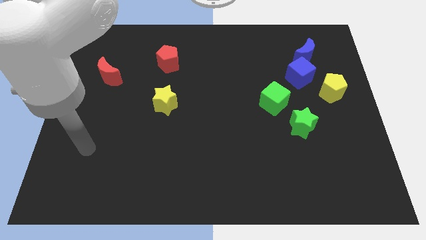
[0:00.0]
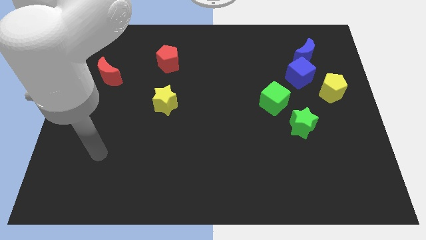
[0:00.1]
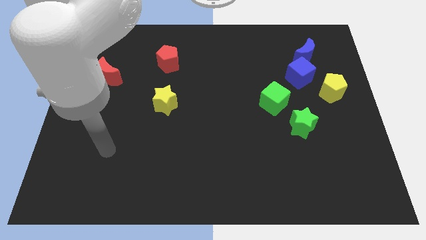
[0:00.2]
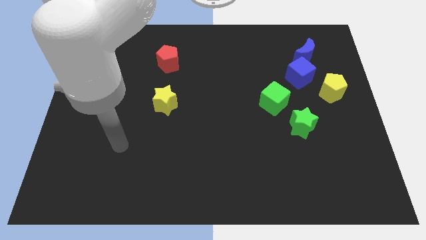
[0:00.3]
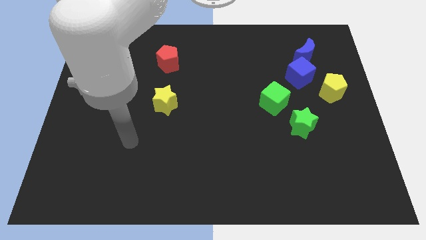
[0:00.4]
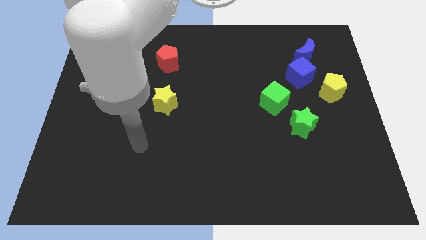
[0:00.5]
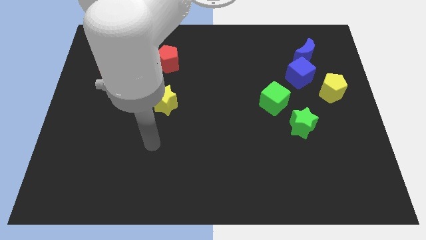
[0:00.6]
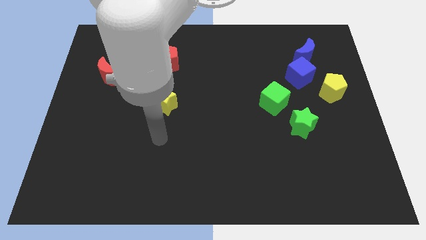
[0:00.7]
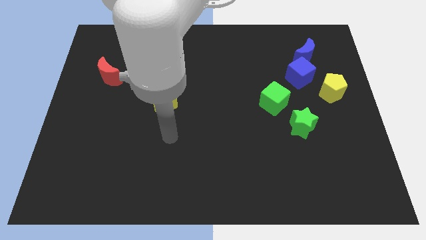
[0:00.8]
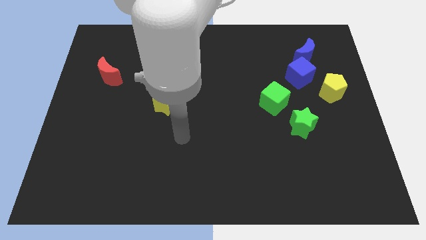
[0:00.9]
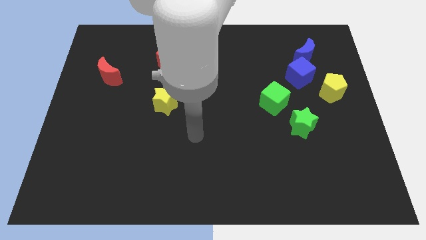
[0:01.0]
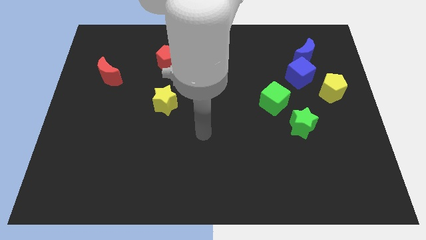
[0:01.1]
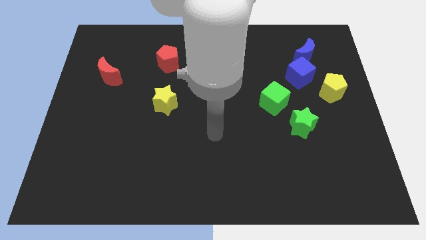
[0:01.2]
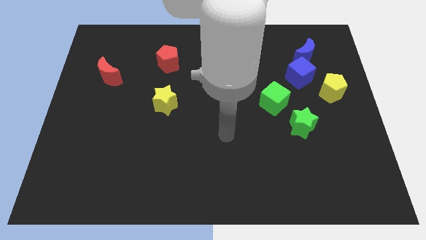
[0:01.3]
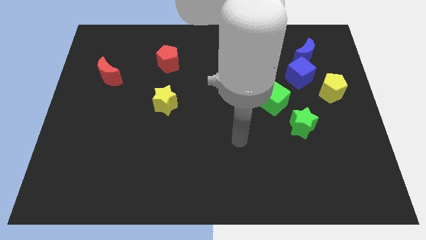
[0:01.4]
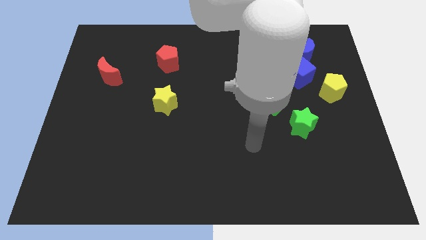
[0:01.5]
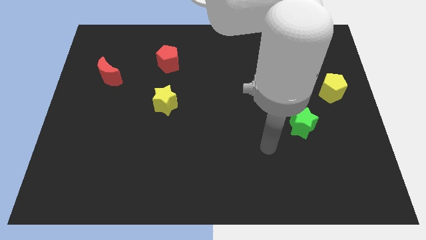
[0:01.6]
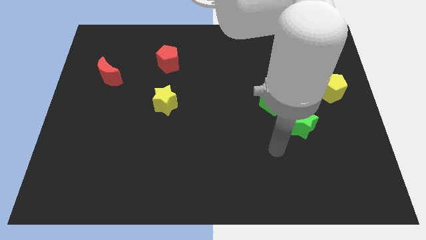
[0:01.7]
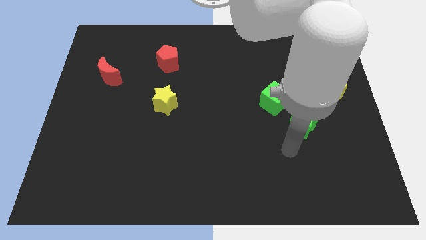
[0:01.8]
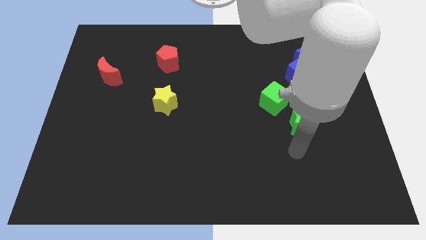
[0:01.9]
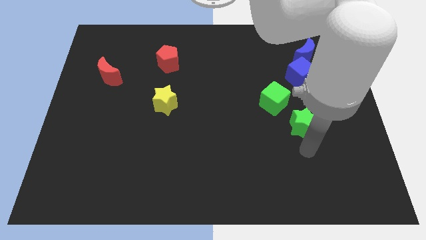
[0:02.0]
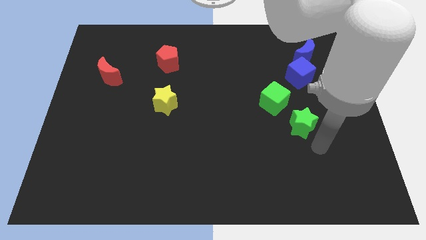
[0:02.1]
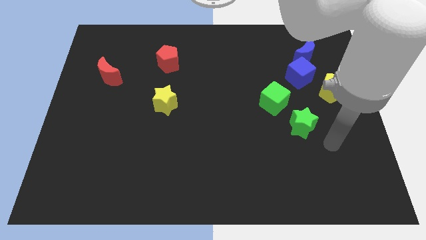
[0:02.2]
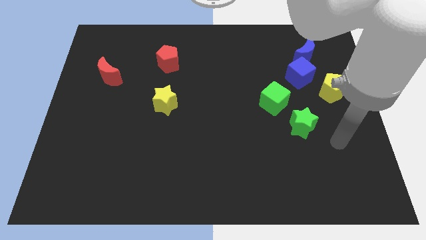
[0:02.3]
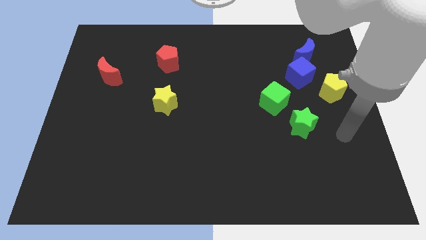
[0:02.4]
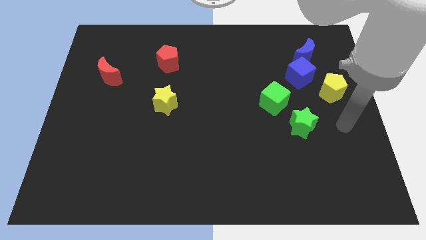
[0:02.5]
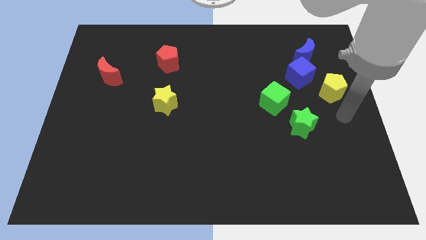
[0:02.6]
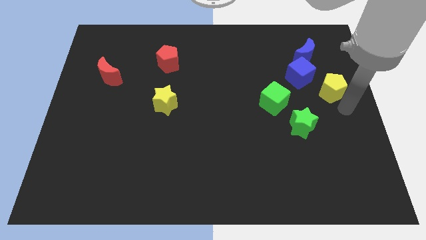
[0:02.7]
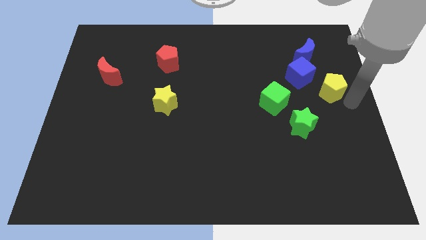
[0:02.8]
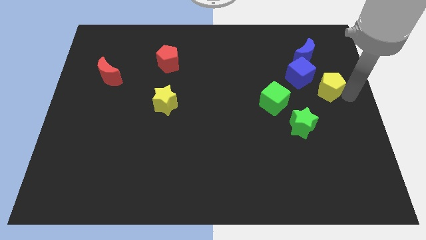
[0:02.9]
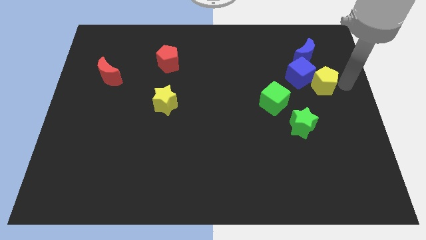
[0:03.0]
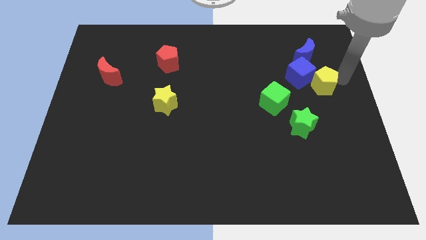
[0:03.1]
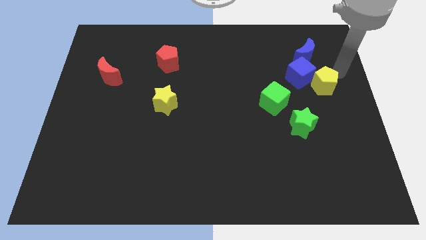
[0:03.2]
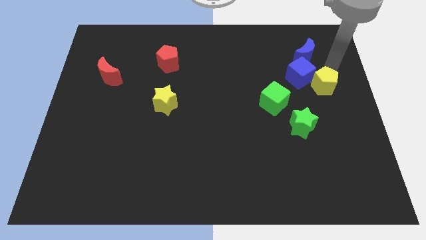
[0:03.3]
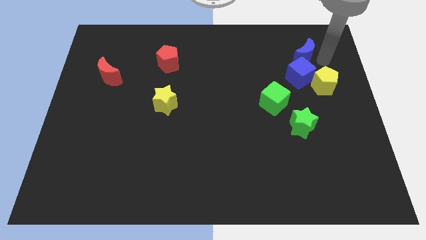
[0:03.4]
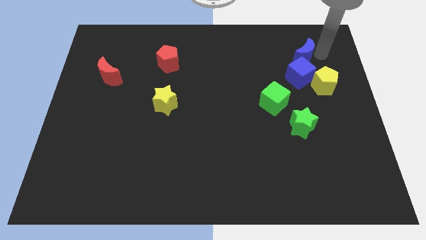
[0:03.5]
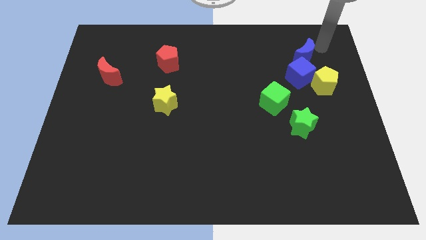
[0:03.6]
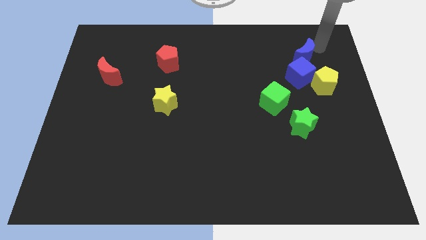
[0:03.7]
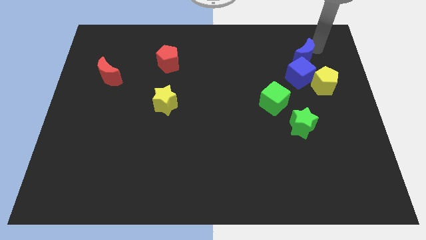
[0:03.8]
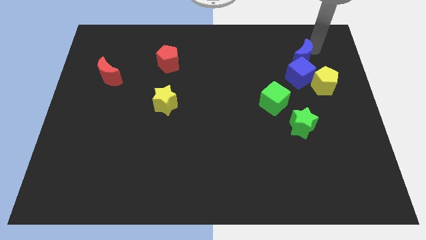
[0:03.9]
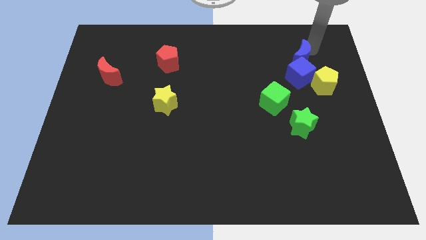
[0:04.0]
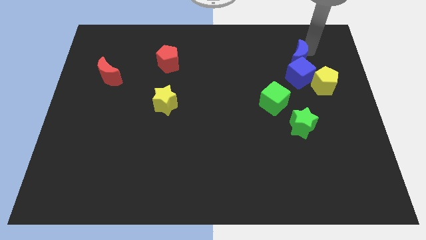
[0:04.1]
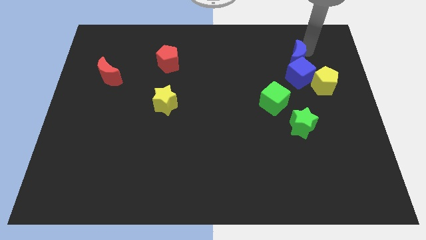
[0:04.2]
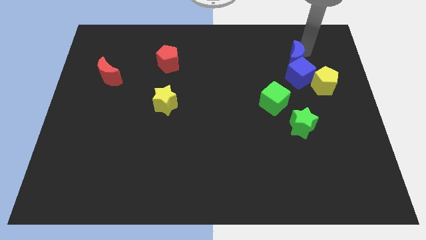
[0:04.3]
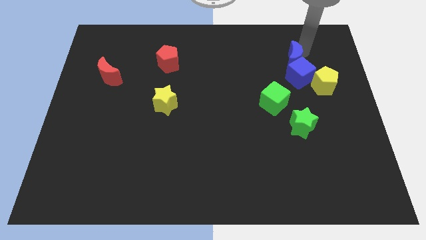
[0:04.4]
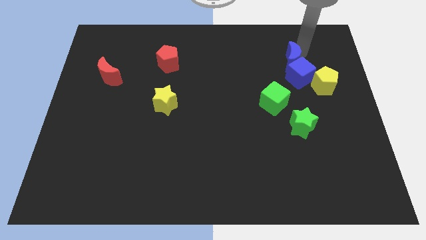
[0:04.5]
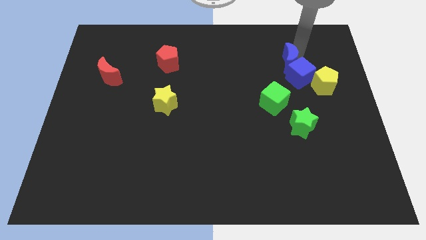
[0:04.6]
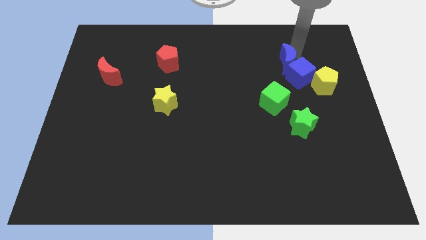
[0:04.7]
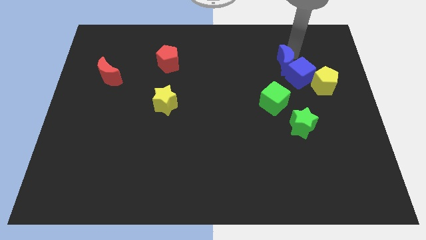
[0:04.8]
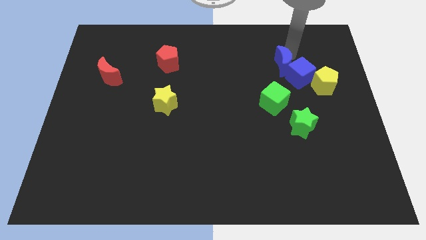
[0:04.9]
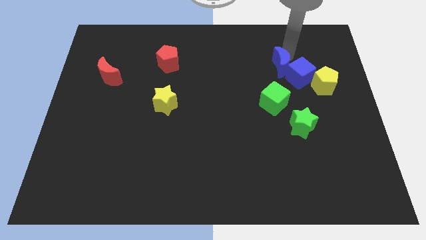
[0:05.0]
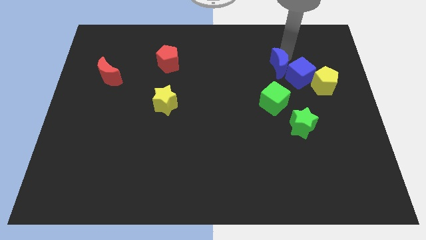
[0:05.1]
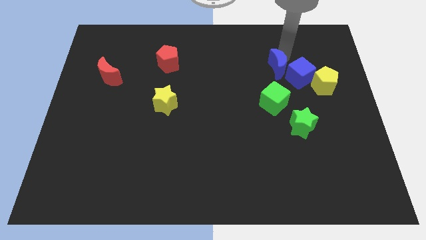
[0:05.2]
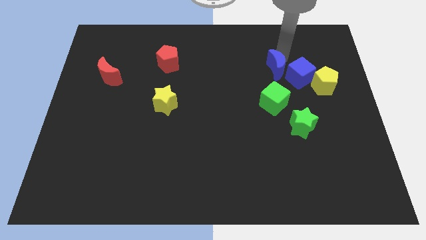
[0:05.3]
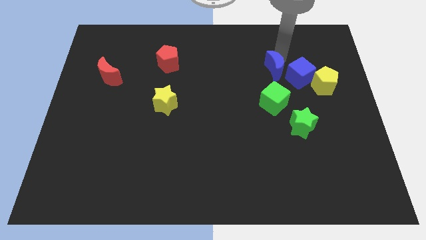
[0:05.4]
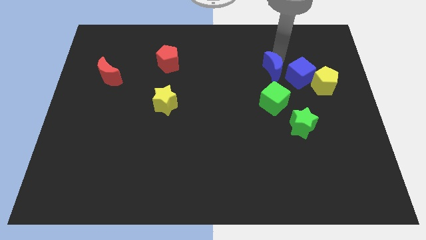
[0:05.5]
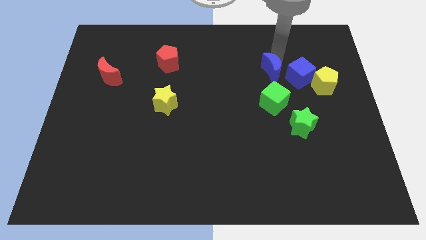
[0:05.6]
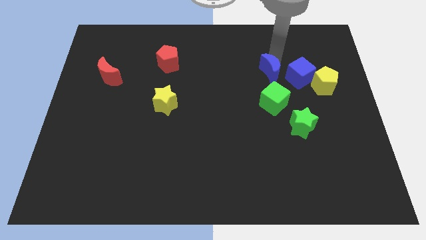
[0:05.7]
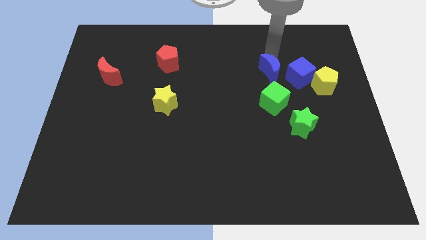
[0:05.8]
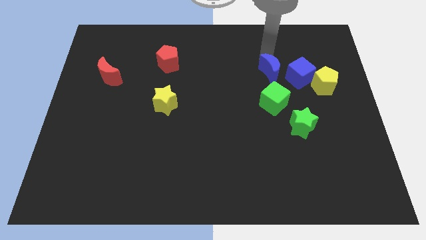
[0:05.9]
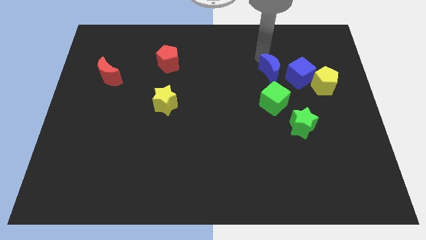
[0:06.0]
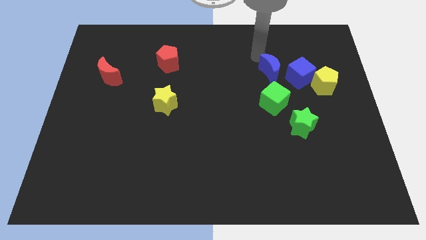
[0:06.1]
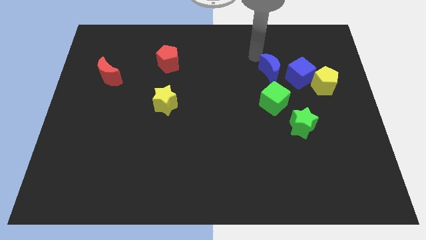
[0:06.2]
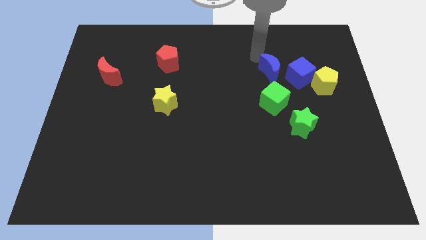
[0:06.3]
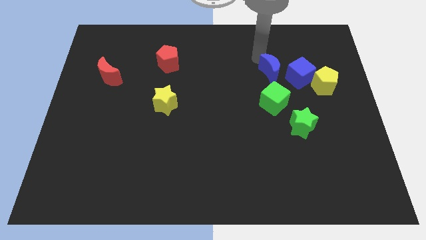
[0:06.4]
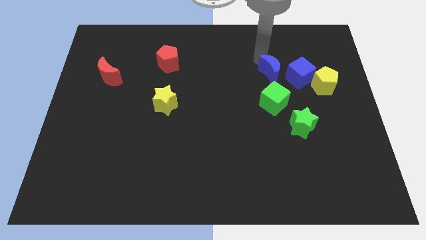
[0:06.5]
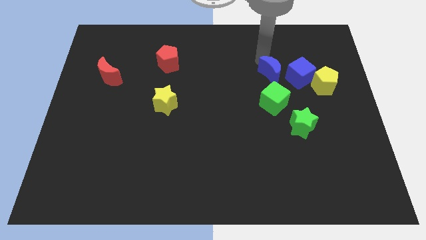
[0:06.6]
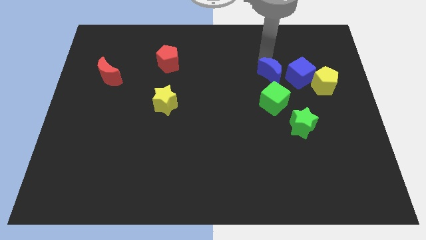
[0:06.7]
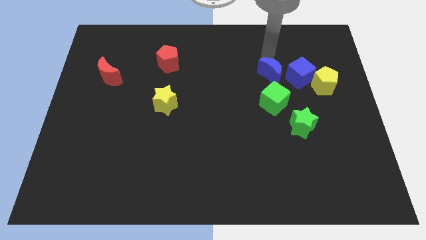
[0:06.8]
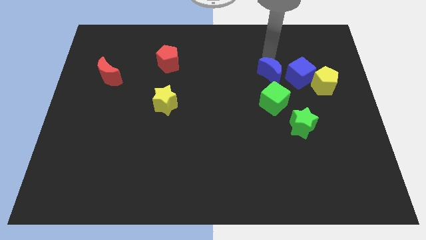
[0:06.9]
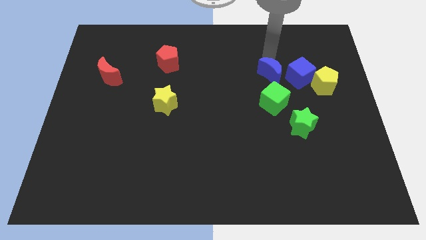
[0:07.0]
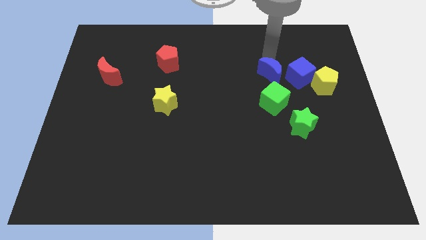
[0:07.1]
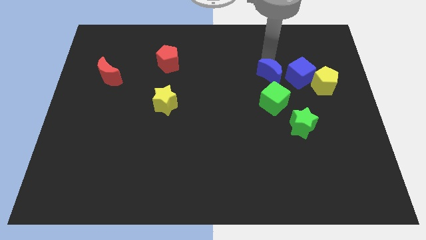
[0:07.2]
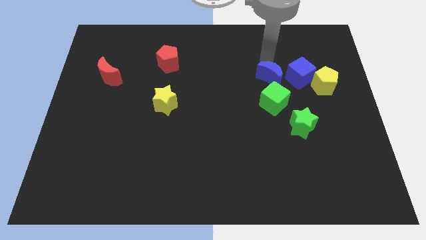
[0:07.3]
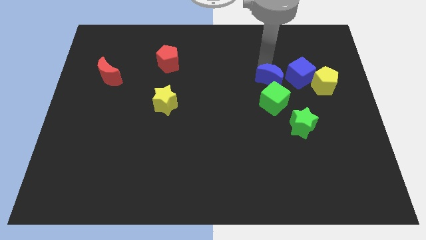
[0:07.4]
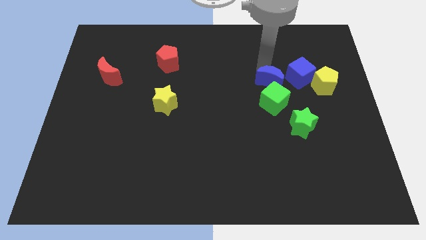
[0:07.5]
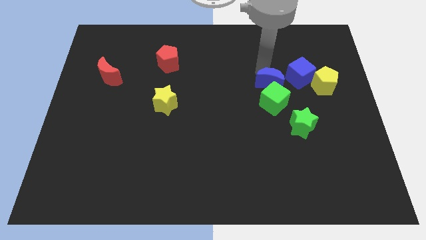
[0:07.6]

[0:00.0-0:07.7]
move the blue moon towards the green cube
